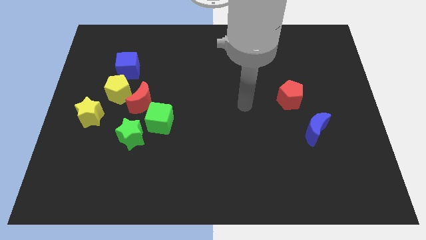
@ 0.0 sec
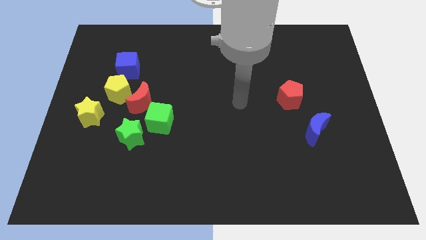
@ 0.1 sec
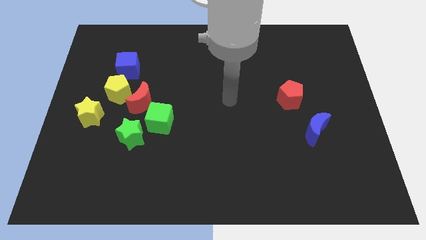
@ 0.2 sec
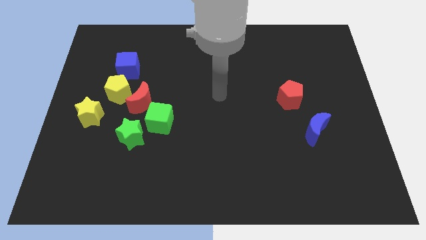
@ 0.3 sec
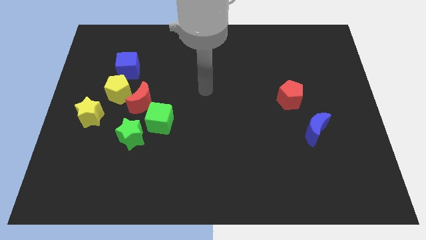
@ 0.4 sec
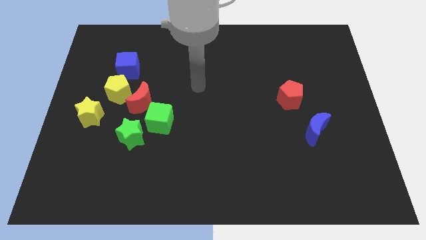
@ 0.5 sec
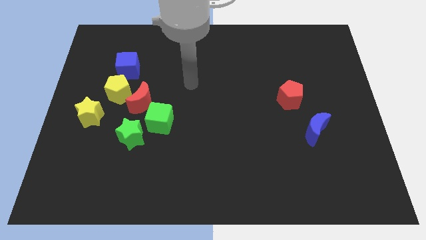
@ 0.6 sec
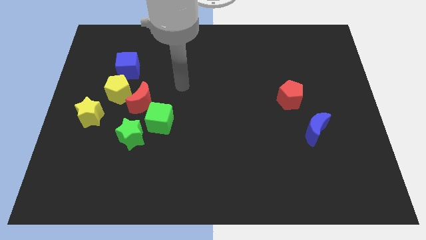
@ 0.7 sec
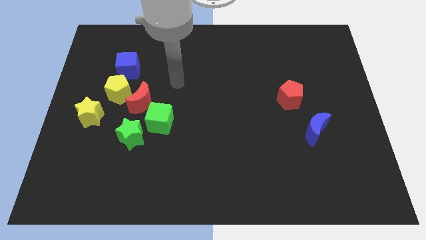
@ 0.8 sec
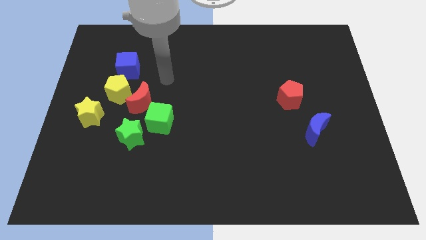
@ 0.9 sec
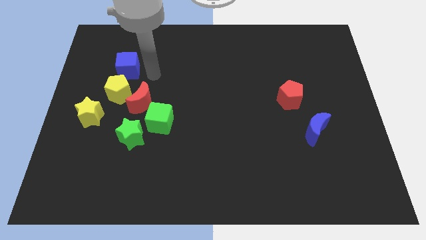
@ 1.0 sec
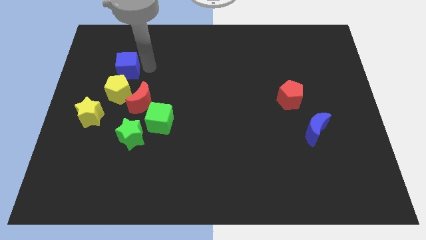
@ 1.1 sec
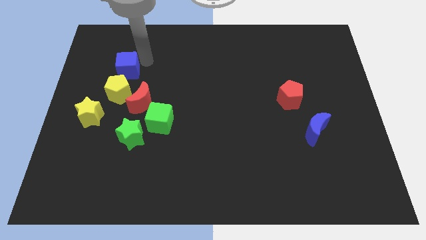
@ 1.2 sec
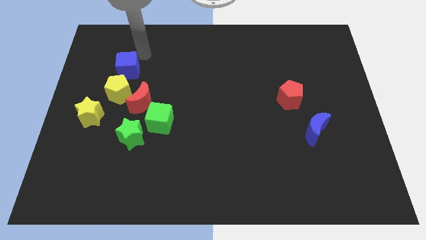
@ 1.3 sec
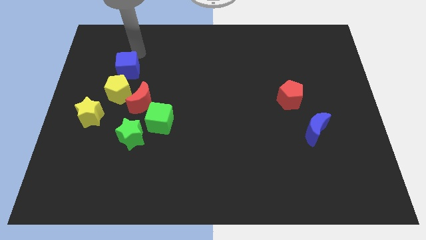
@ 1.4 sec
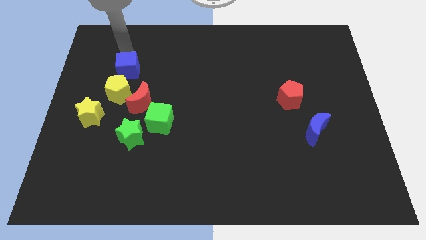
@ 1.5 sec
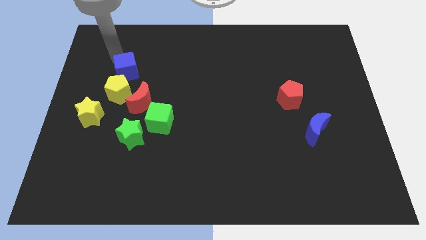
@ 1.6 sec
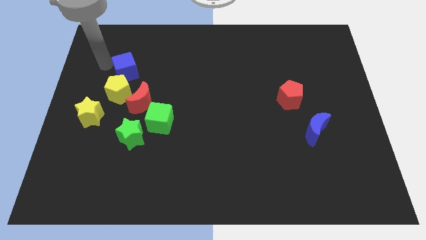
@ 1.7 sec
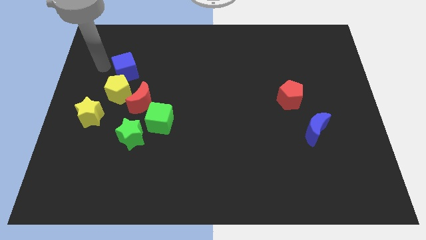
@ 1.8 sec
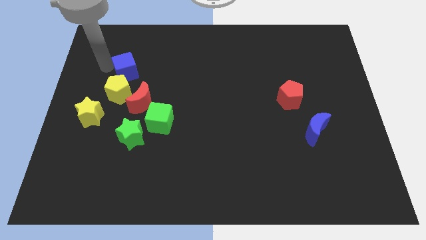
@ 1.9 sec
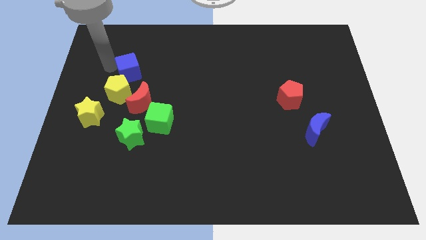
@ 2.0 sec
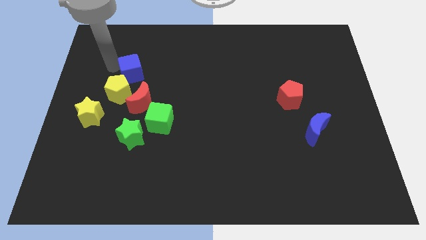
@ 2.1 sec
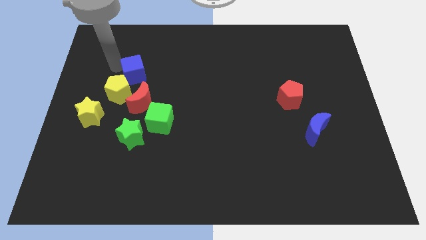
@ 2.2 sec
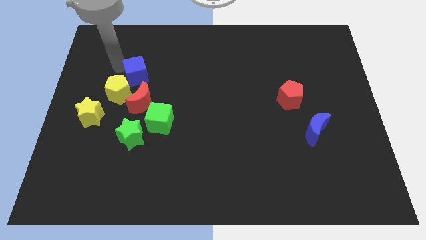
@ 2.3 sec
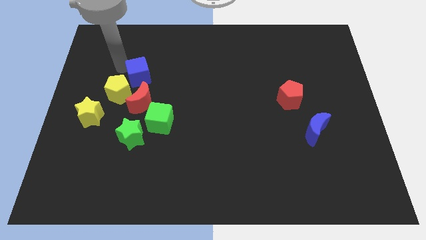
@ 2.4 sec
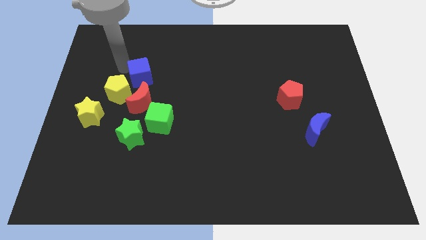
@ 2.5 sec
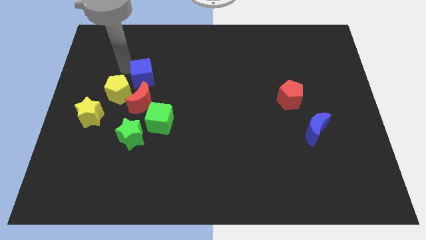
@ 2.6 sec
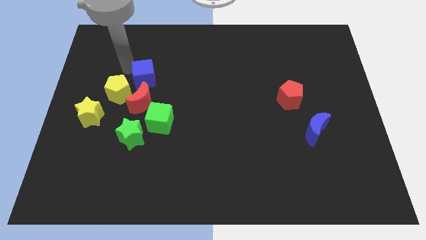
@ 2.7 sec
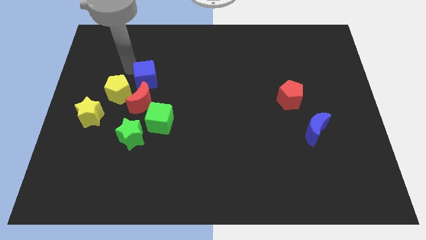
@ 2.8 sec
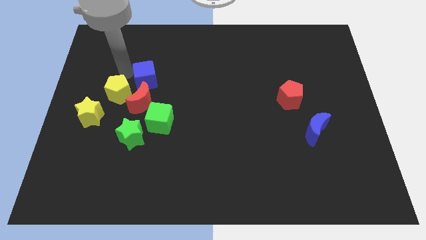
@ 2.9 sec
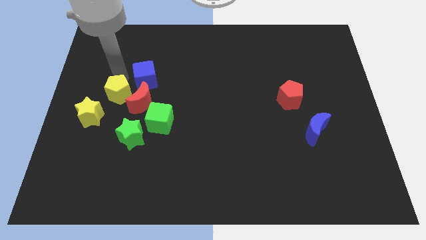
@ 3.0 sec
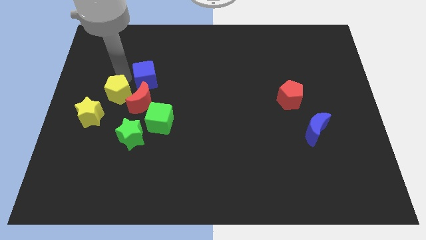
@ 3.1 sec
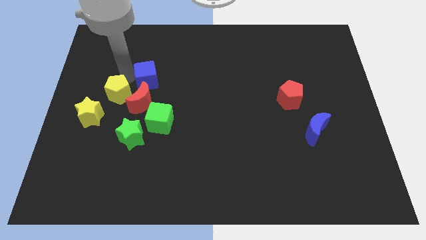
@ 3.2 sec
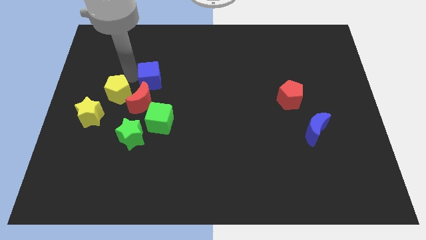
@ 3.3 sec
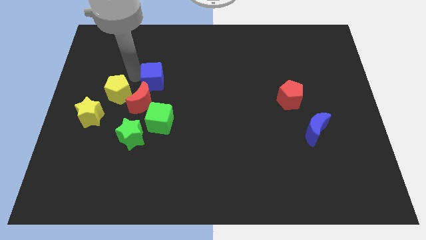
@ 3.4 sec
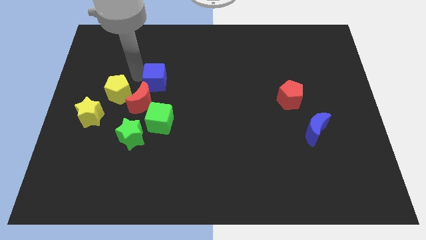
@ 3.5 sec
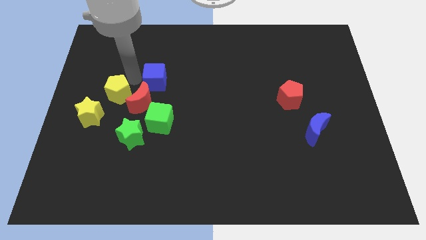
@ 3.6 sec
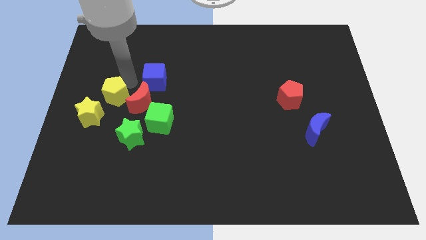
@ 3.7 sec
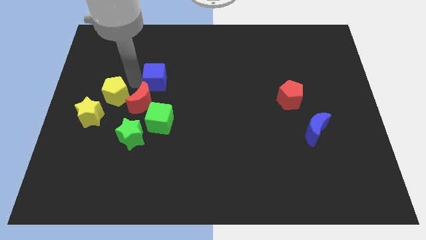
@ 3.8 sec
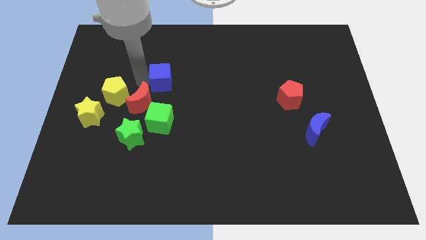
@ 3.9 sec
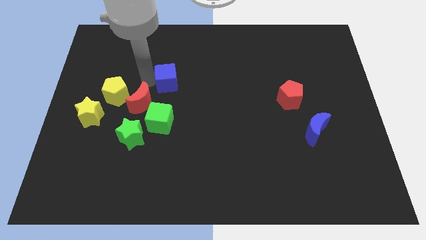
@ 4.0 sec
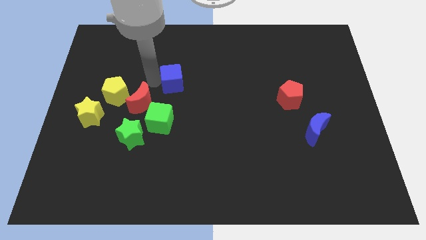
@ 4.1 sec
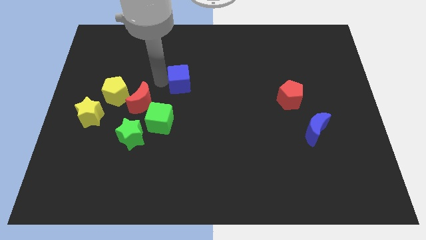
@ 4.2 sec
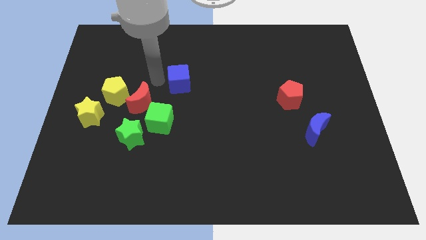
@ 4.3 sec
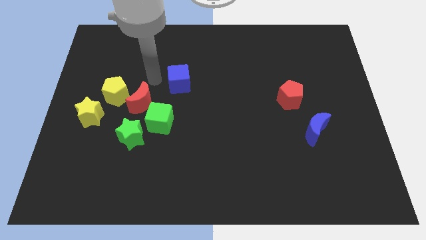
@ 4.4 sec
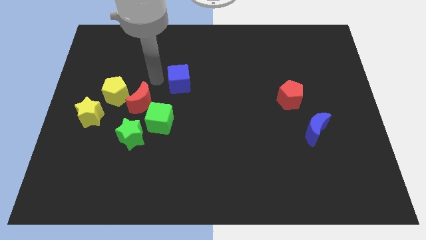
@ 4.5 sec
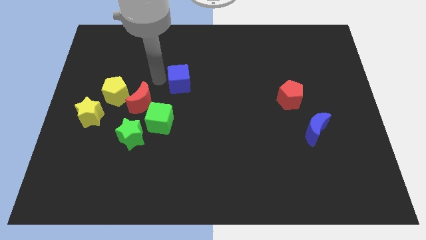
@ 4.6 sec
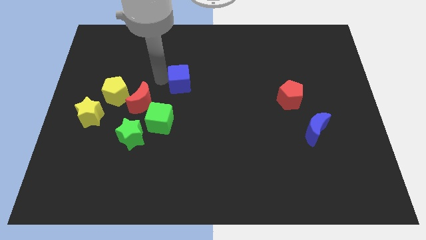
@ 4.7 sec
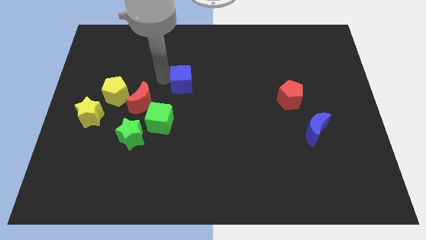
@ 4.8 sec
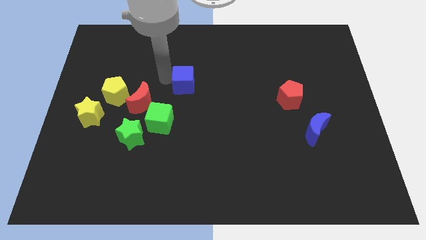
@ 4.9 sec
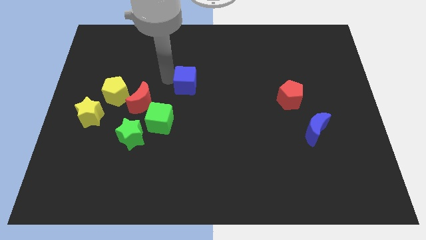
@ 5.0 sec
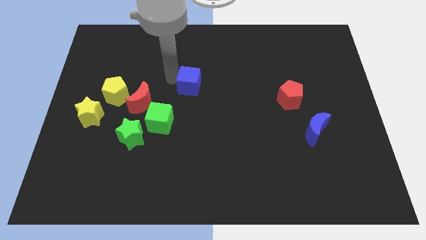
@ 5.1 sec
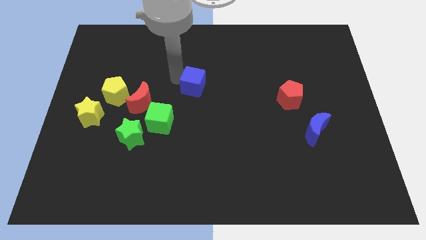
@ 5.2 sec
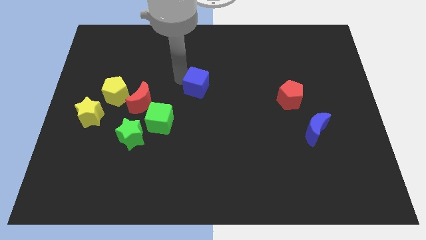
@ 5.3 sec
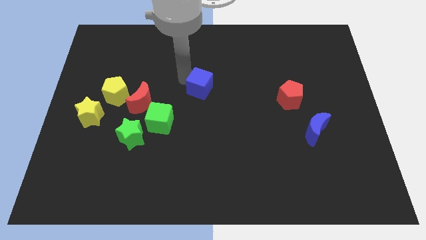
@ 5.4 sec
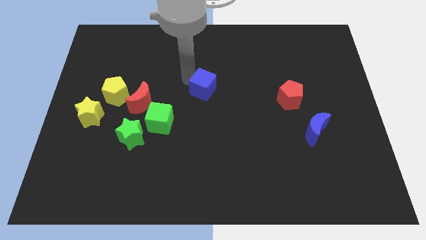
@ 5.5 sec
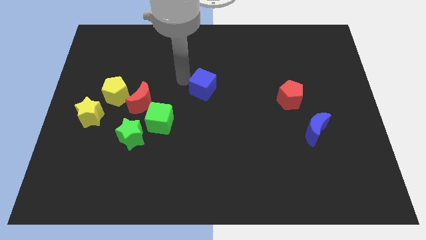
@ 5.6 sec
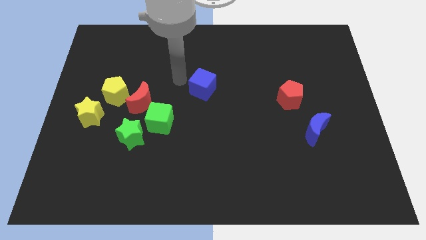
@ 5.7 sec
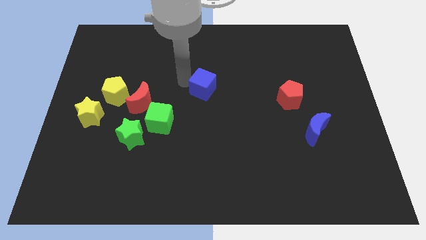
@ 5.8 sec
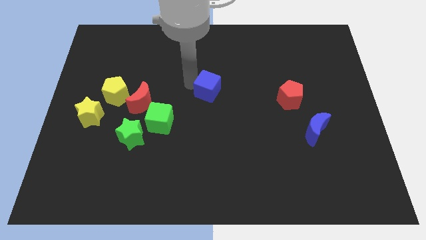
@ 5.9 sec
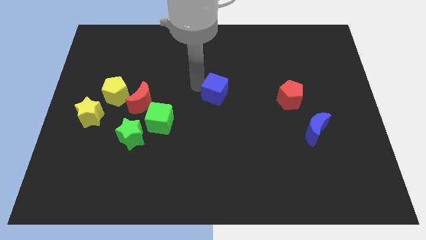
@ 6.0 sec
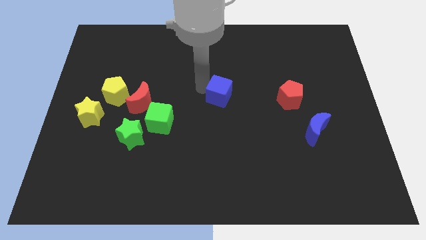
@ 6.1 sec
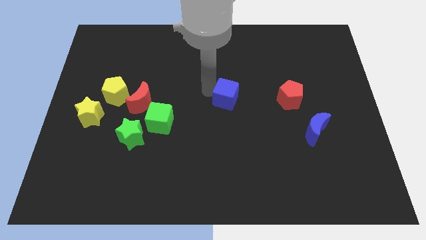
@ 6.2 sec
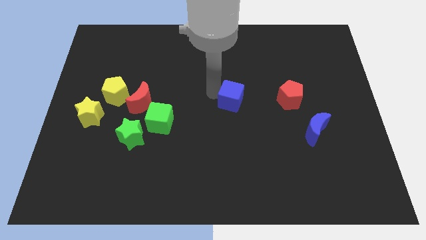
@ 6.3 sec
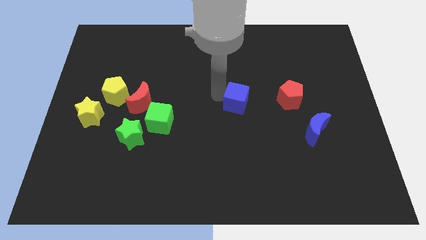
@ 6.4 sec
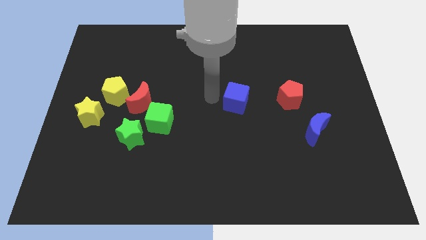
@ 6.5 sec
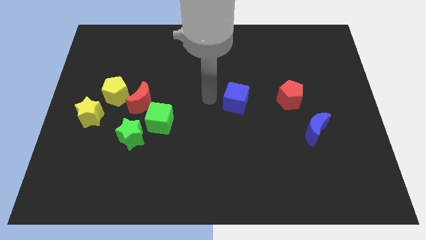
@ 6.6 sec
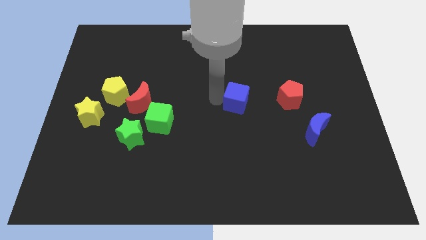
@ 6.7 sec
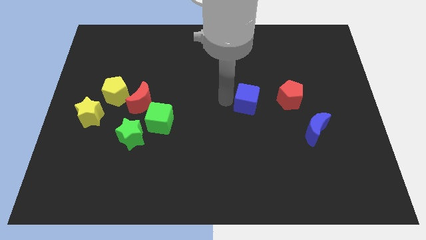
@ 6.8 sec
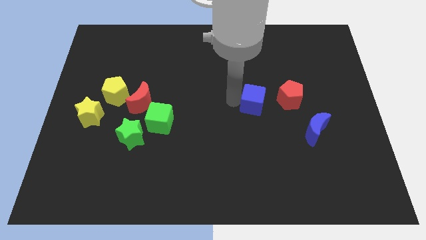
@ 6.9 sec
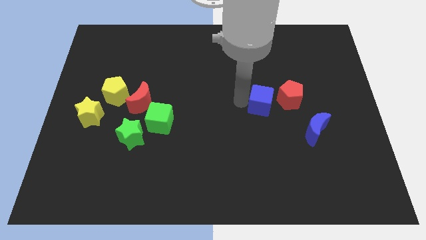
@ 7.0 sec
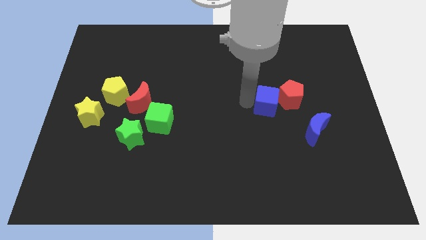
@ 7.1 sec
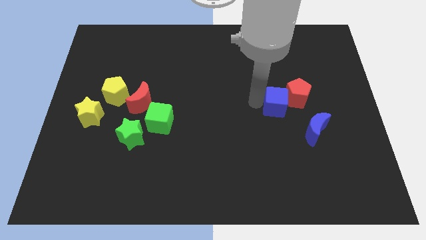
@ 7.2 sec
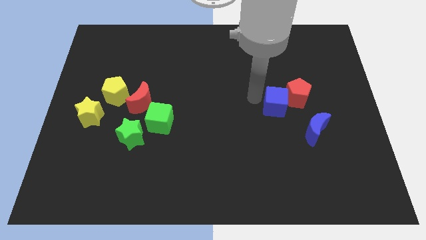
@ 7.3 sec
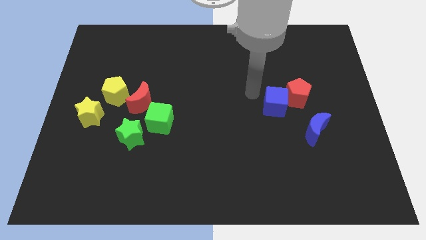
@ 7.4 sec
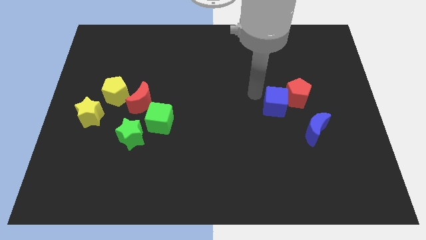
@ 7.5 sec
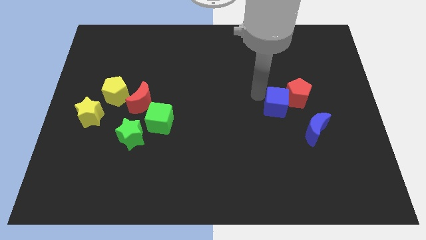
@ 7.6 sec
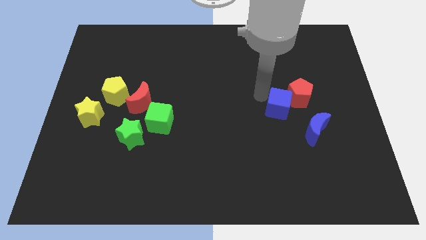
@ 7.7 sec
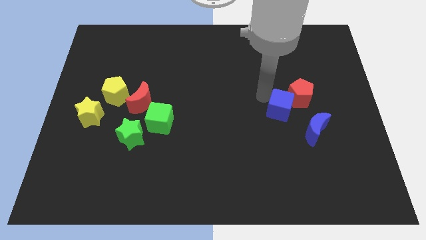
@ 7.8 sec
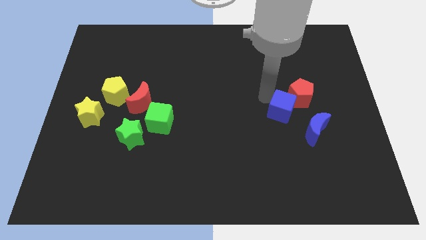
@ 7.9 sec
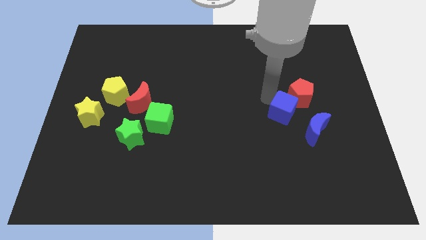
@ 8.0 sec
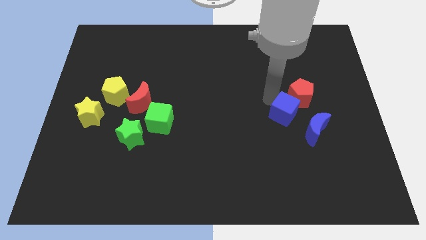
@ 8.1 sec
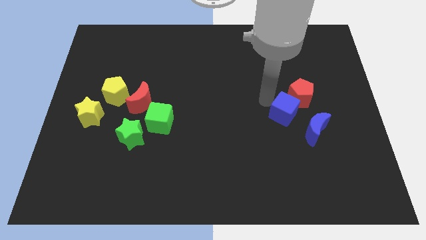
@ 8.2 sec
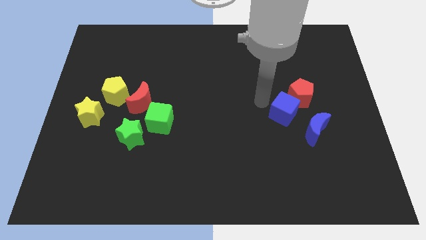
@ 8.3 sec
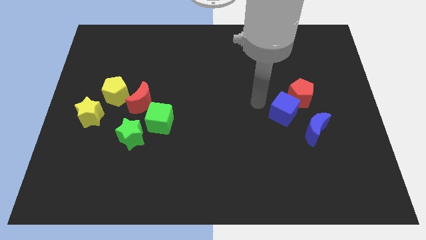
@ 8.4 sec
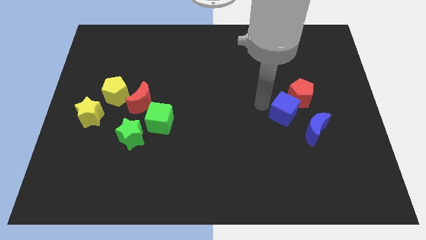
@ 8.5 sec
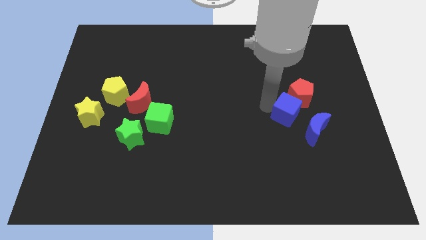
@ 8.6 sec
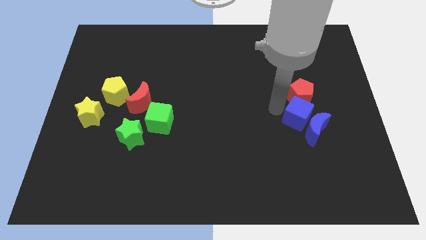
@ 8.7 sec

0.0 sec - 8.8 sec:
slide the blue cube next to the blue moon
